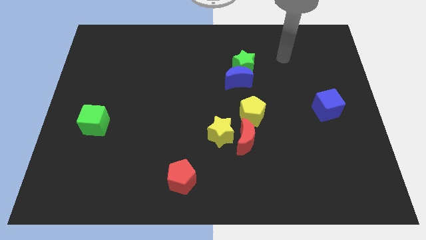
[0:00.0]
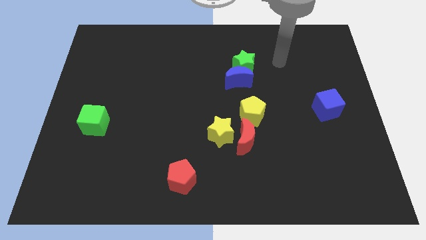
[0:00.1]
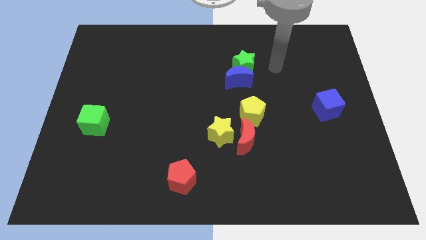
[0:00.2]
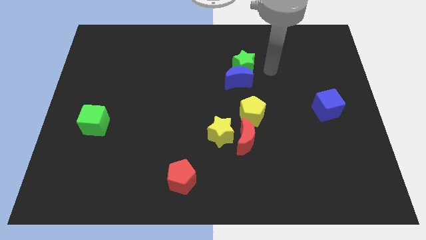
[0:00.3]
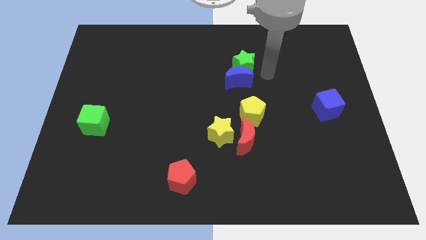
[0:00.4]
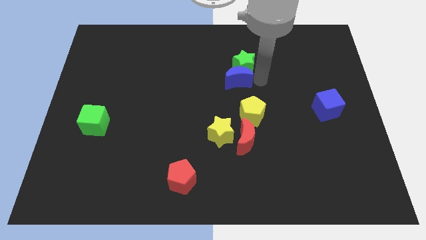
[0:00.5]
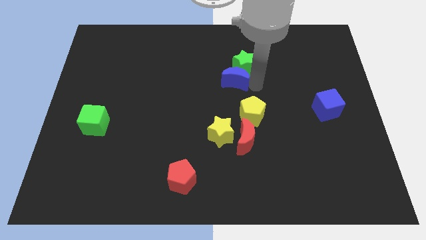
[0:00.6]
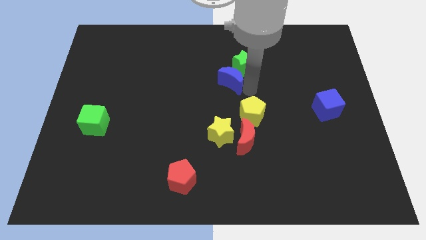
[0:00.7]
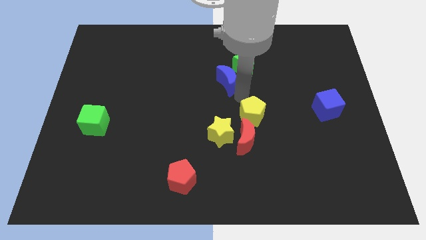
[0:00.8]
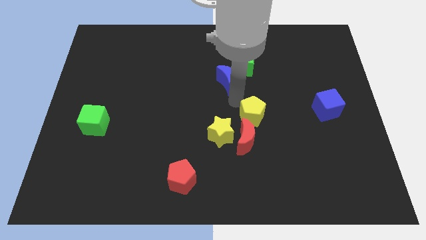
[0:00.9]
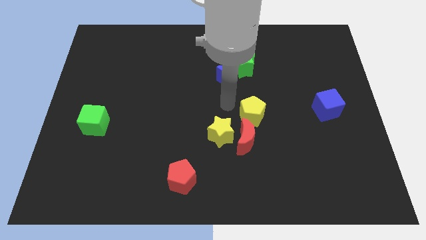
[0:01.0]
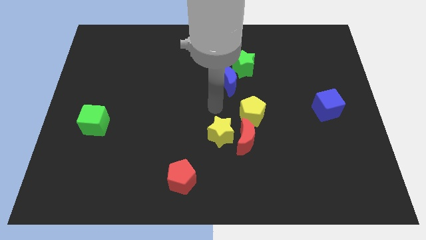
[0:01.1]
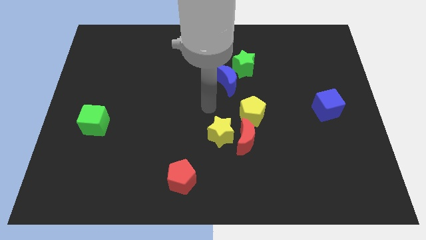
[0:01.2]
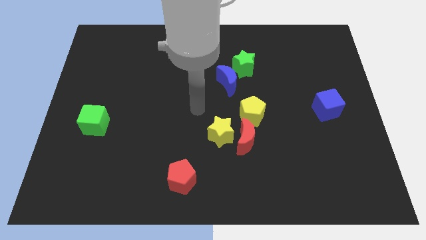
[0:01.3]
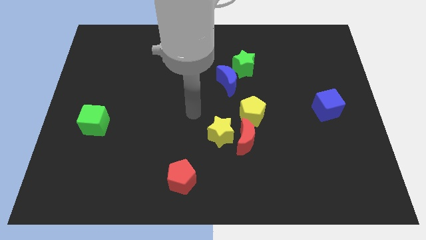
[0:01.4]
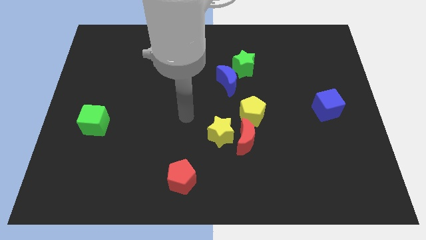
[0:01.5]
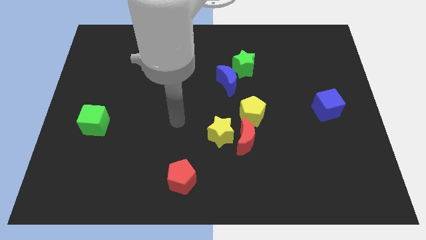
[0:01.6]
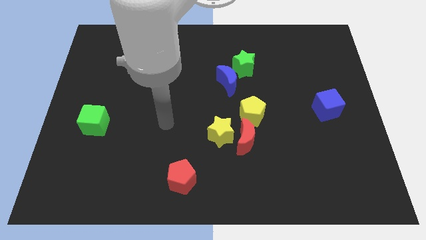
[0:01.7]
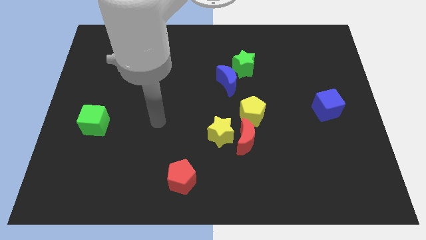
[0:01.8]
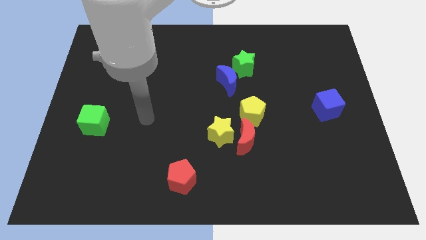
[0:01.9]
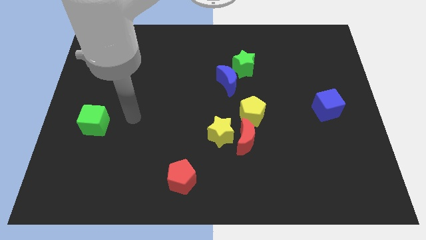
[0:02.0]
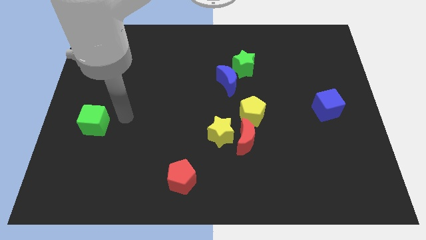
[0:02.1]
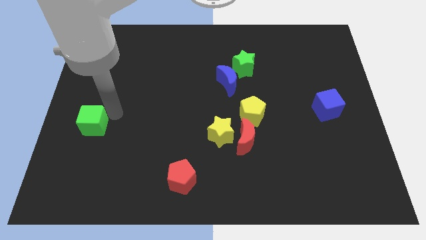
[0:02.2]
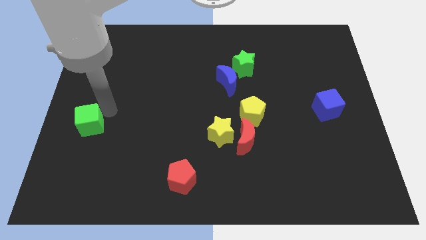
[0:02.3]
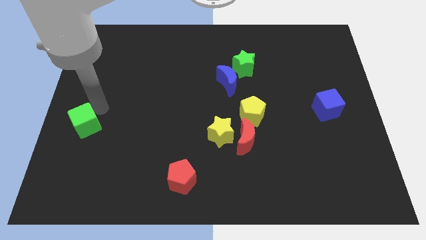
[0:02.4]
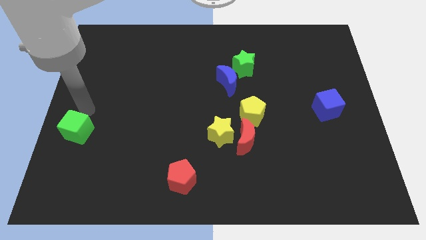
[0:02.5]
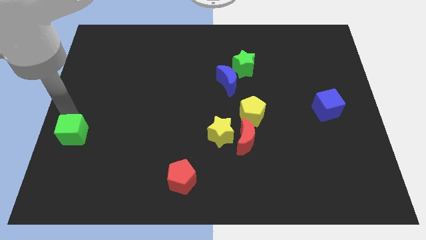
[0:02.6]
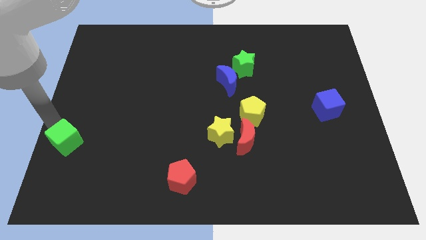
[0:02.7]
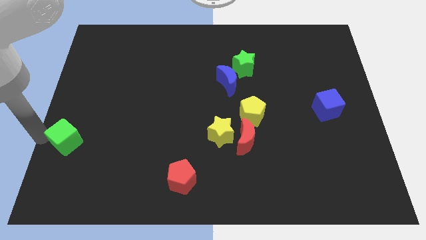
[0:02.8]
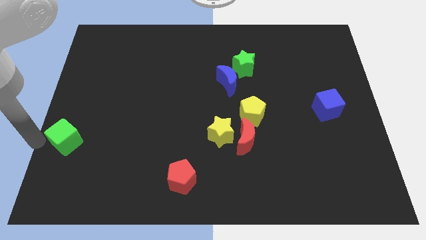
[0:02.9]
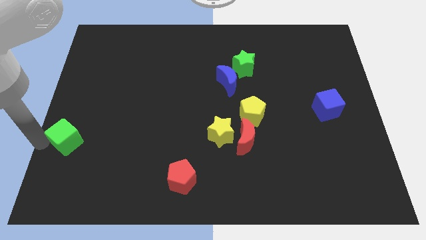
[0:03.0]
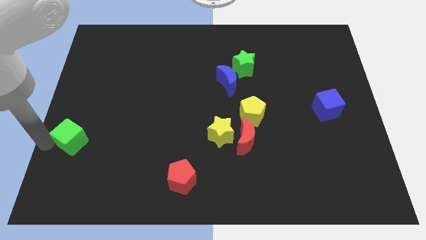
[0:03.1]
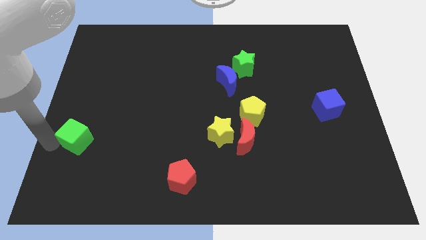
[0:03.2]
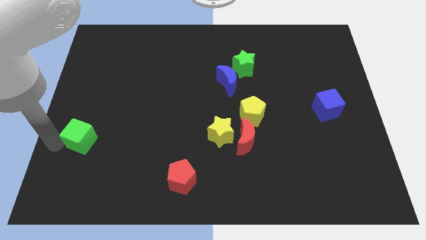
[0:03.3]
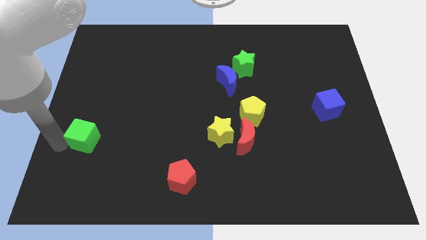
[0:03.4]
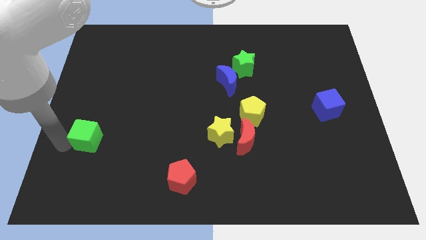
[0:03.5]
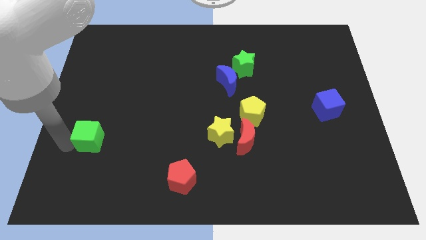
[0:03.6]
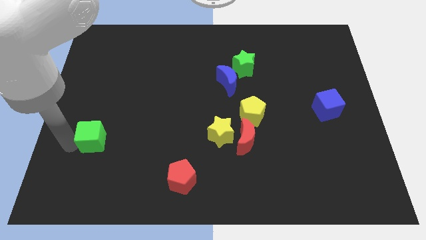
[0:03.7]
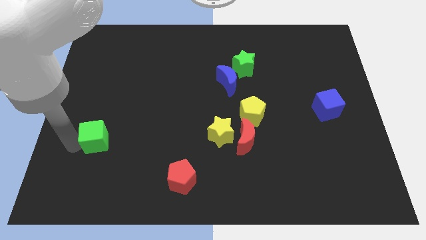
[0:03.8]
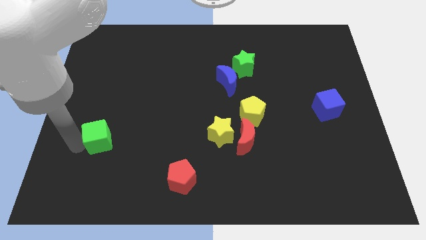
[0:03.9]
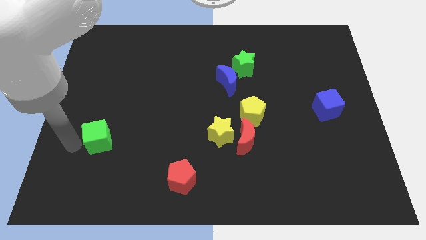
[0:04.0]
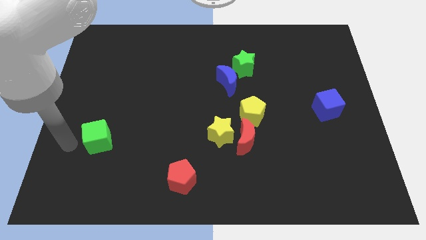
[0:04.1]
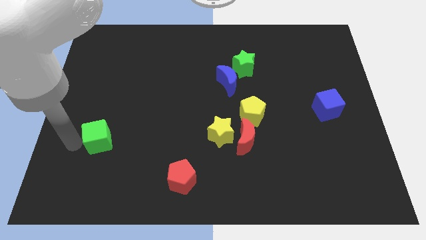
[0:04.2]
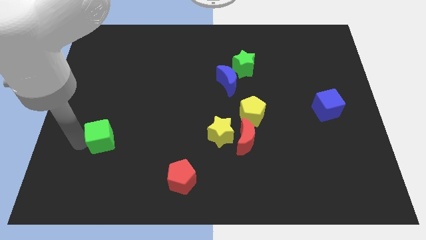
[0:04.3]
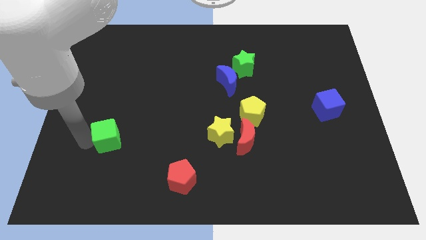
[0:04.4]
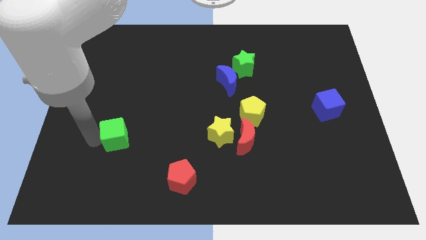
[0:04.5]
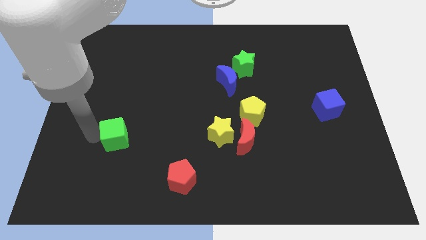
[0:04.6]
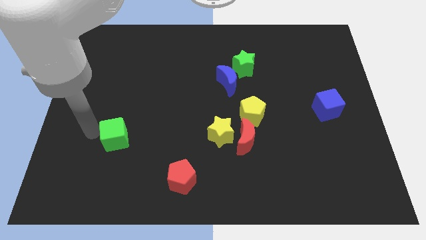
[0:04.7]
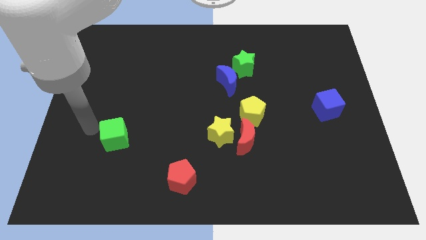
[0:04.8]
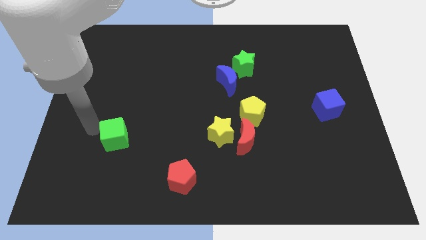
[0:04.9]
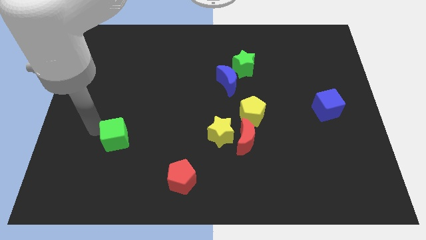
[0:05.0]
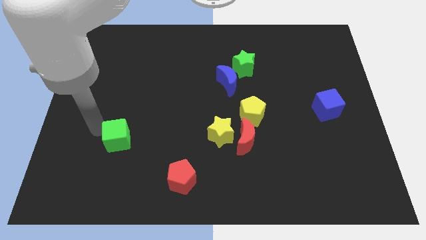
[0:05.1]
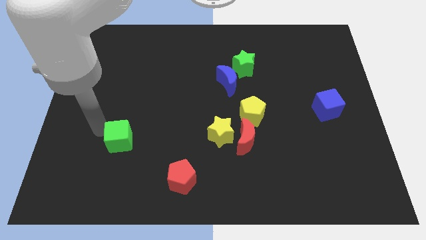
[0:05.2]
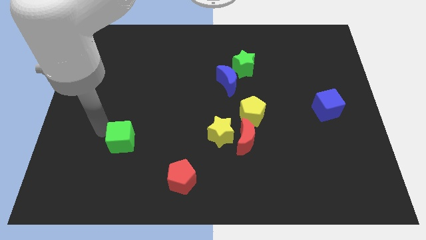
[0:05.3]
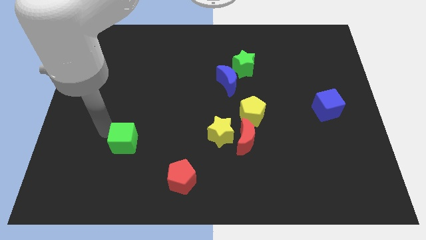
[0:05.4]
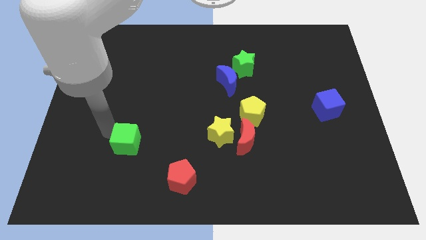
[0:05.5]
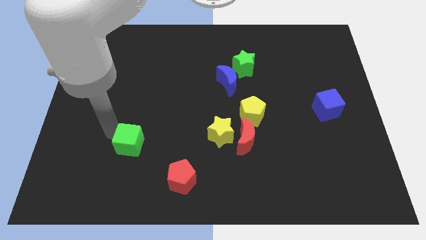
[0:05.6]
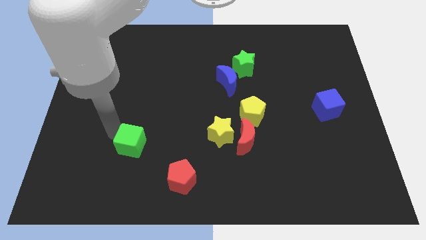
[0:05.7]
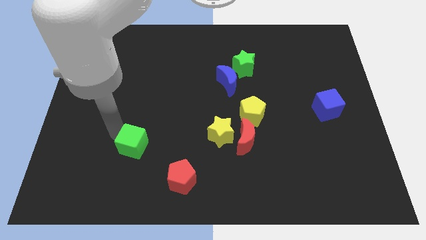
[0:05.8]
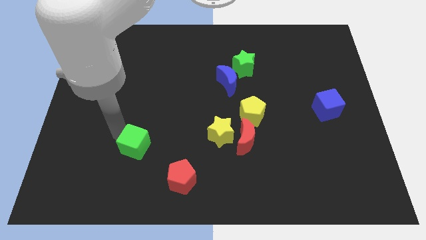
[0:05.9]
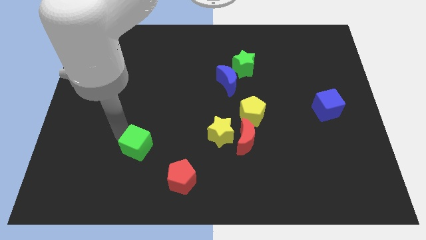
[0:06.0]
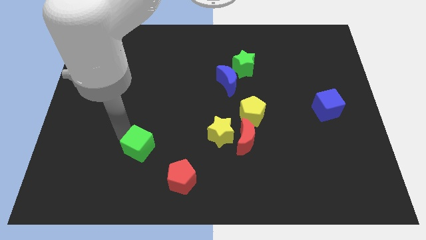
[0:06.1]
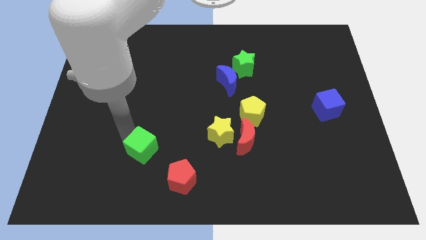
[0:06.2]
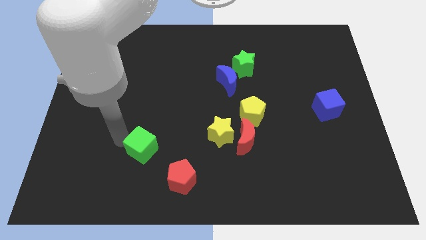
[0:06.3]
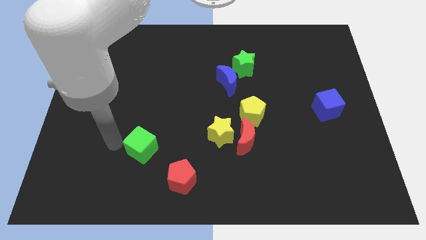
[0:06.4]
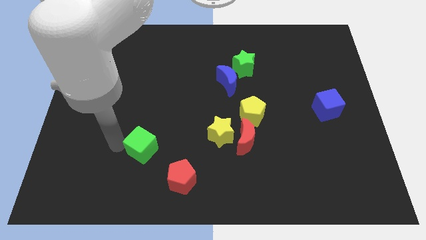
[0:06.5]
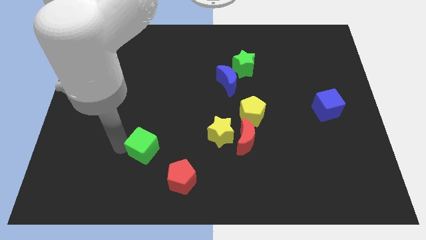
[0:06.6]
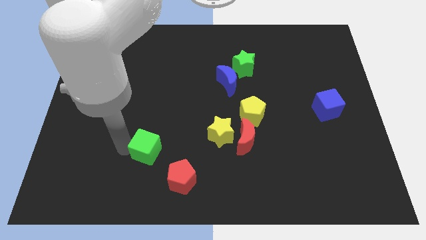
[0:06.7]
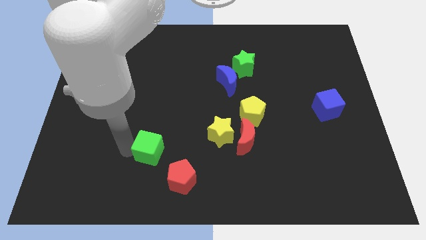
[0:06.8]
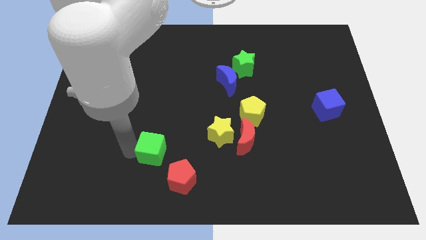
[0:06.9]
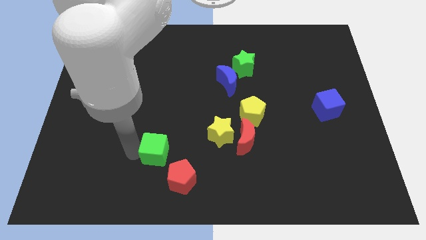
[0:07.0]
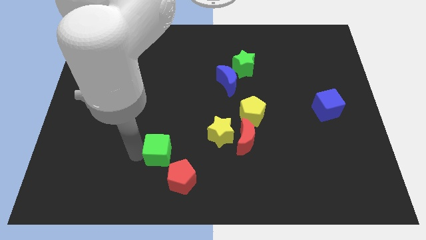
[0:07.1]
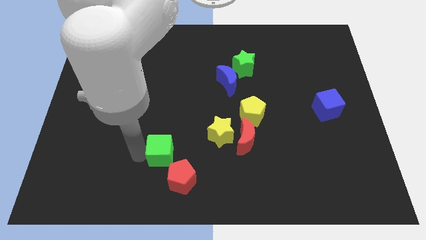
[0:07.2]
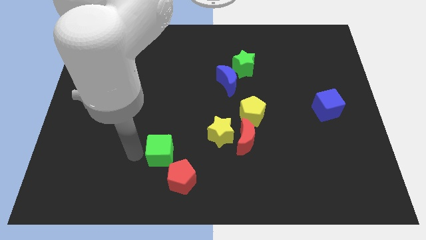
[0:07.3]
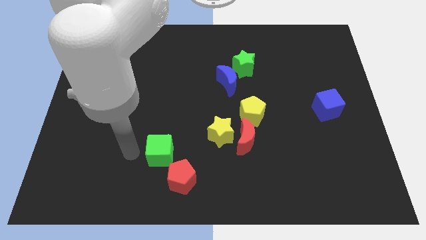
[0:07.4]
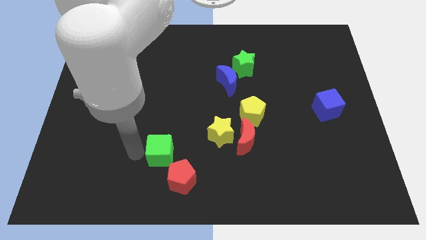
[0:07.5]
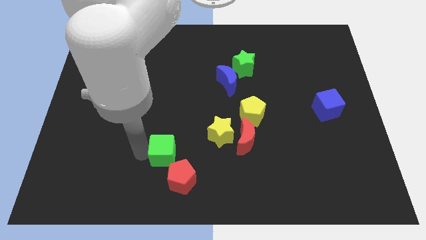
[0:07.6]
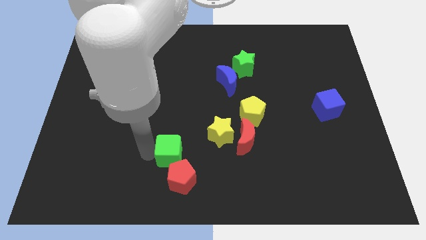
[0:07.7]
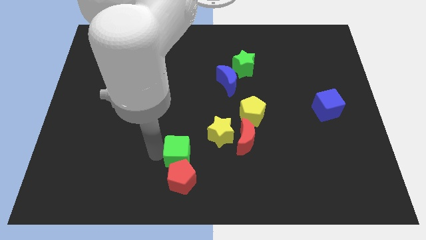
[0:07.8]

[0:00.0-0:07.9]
put the green cube to the bottom left of the yellow star
